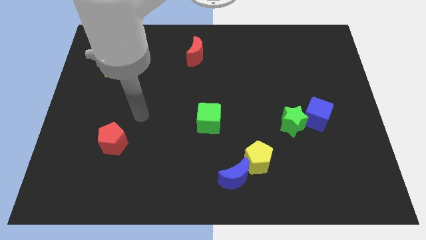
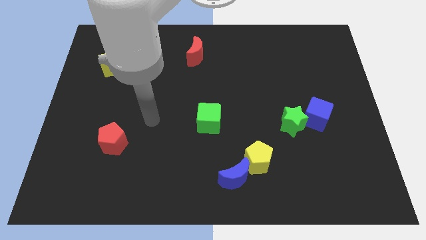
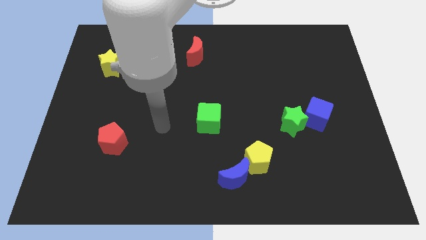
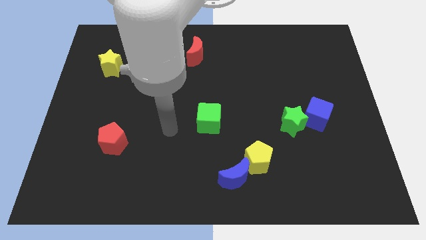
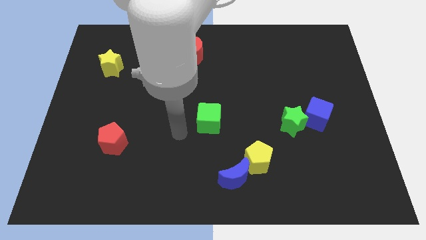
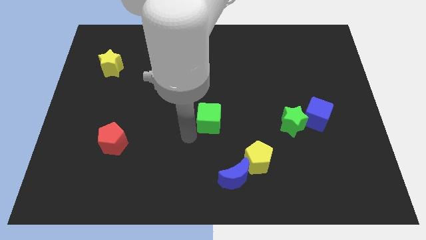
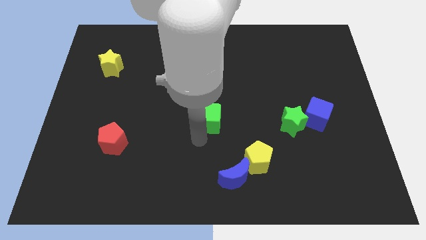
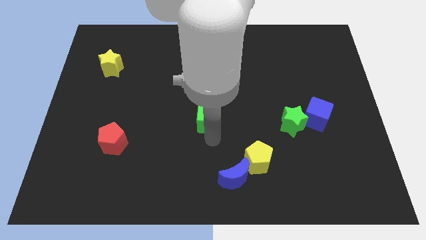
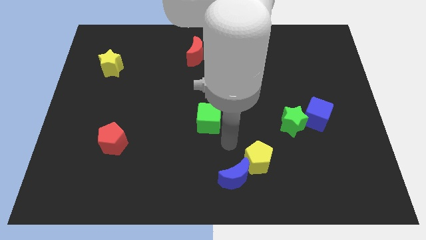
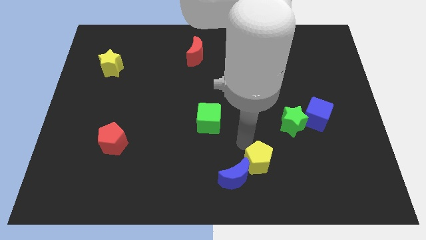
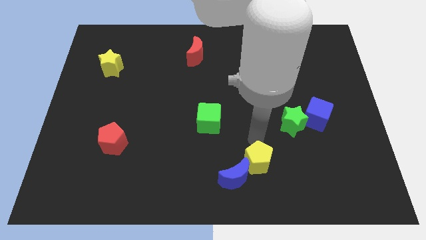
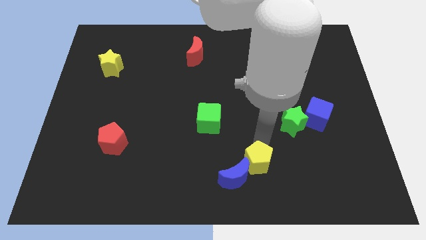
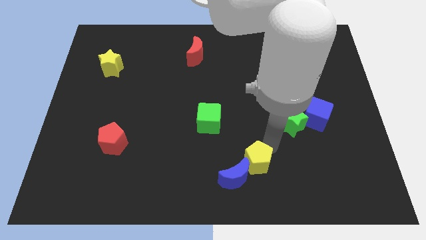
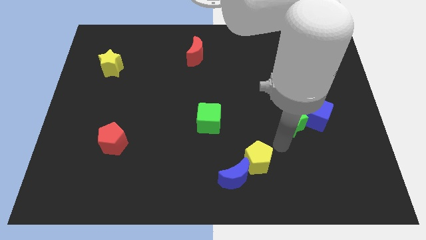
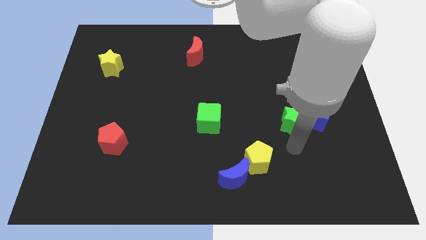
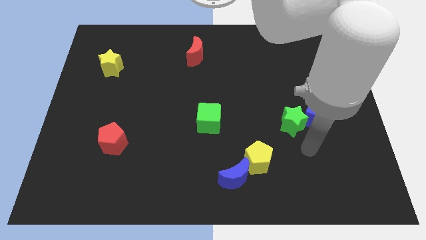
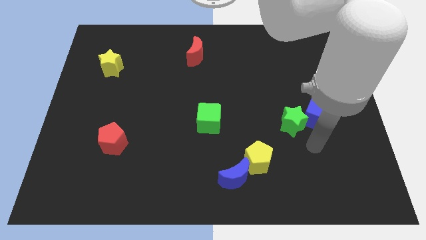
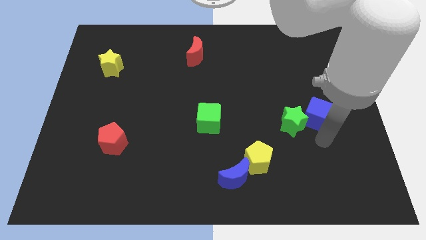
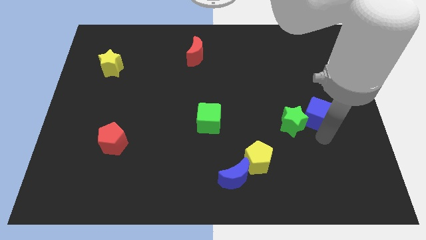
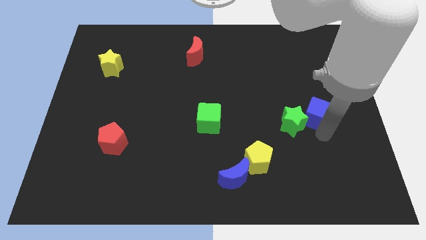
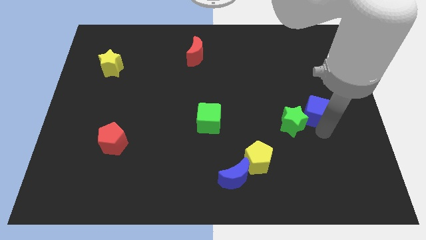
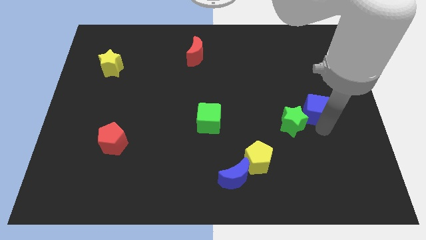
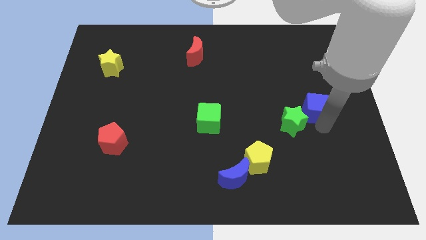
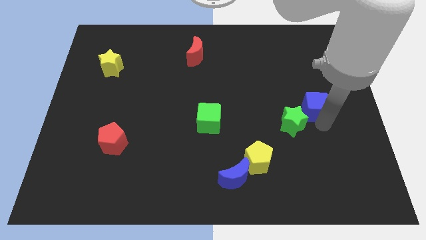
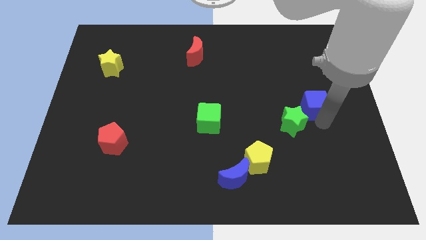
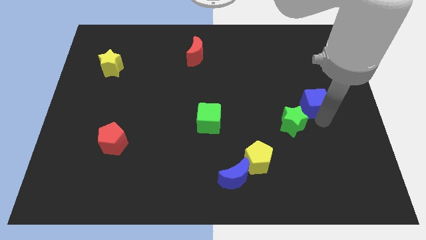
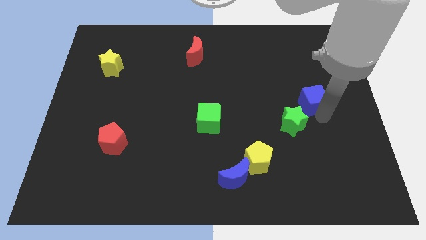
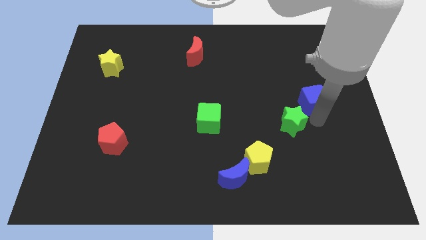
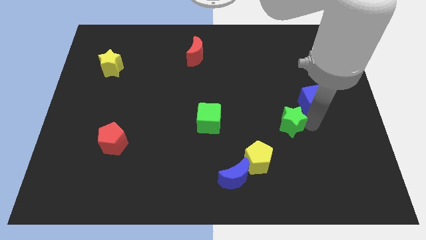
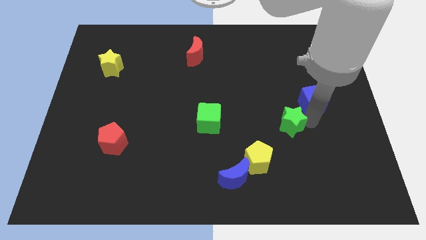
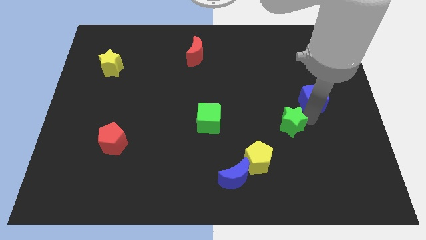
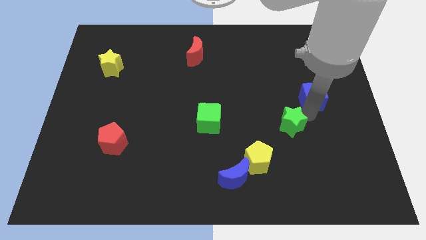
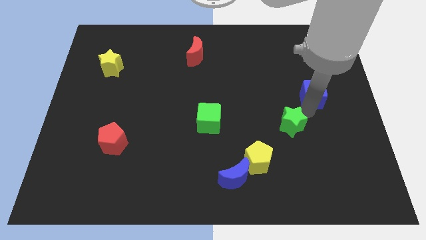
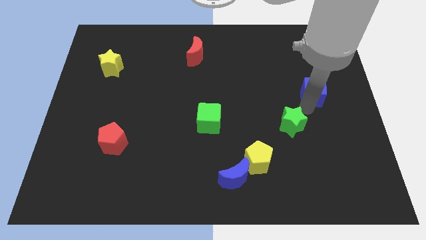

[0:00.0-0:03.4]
slightly move the blue cube upwards

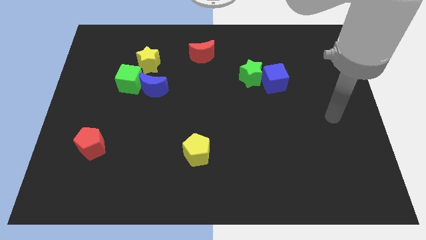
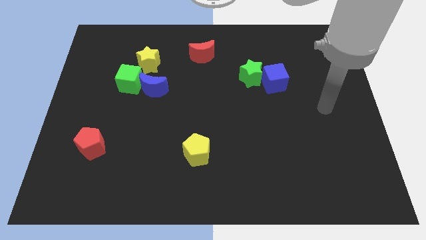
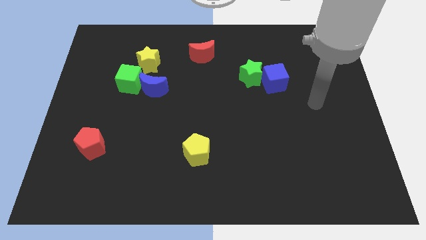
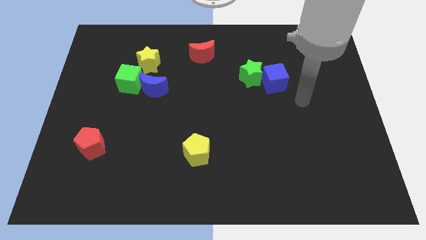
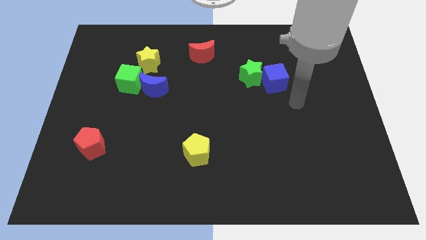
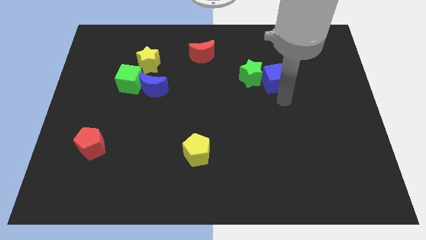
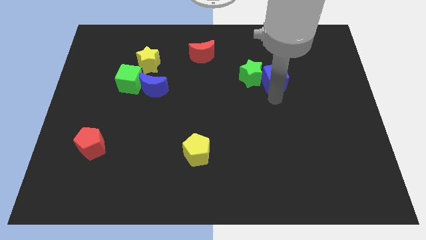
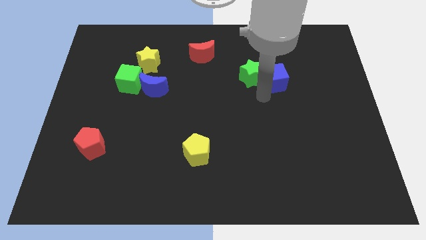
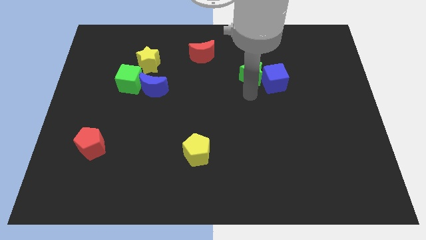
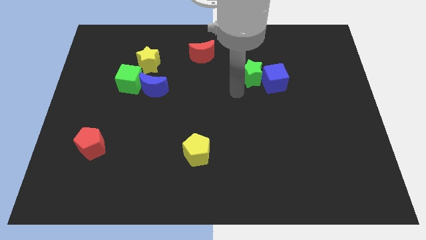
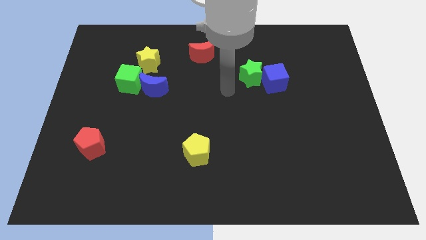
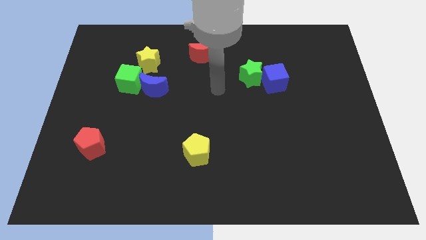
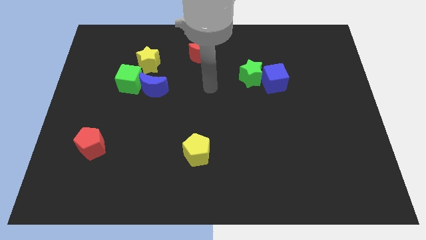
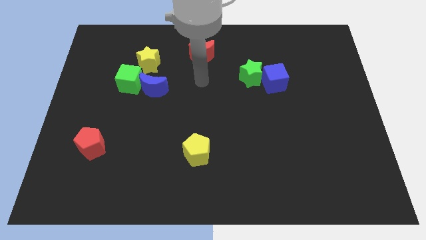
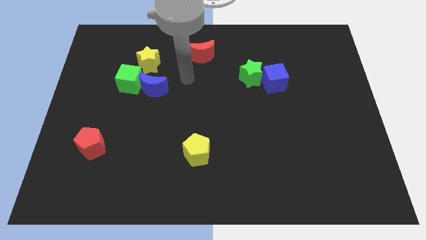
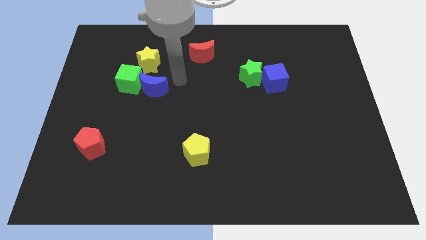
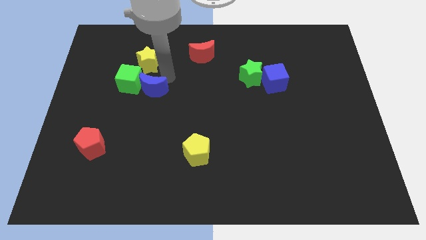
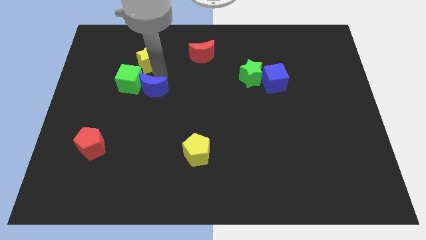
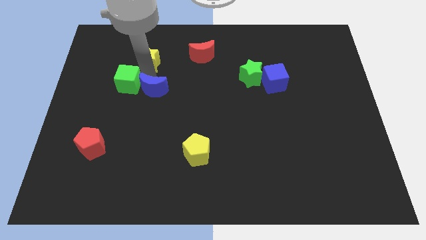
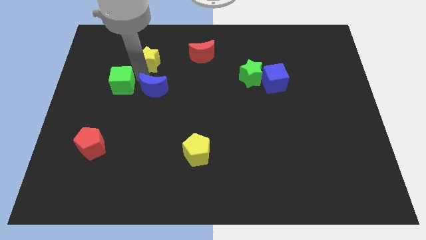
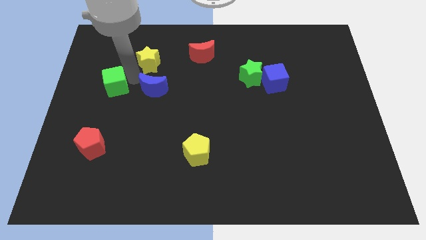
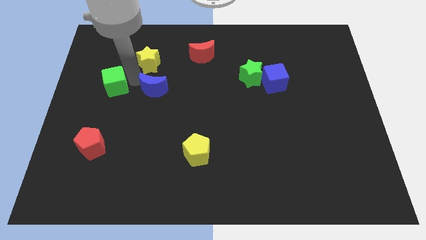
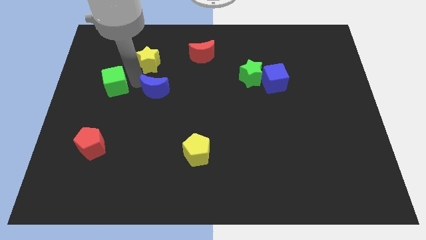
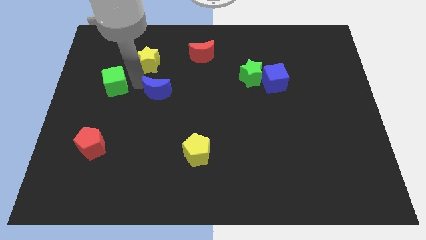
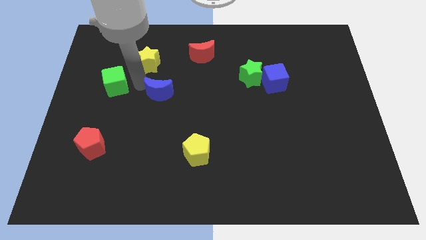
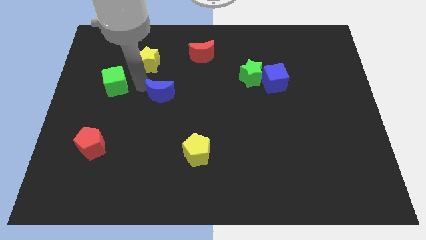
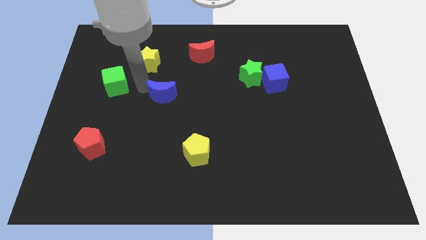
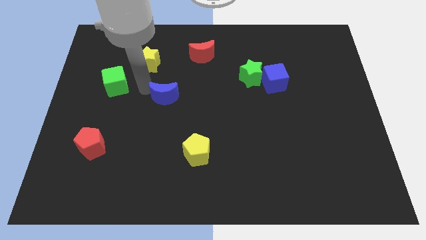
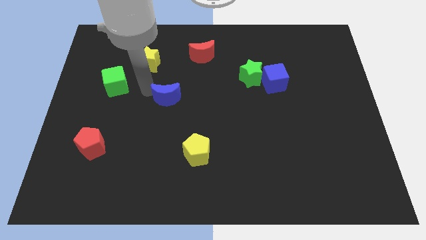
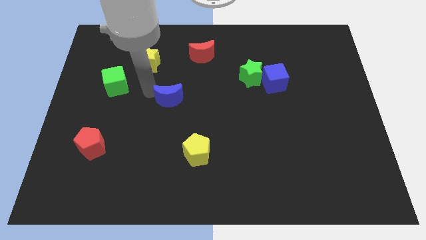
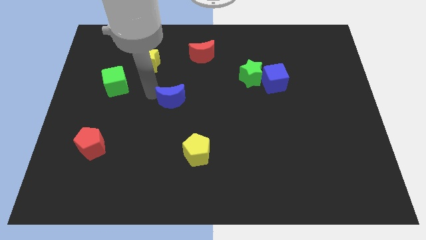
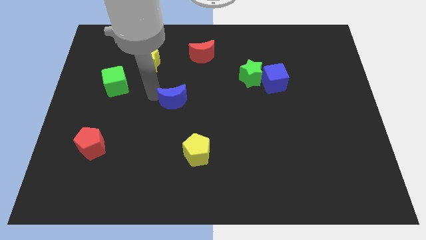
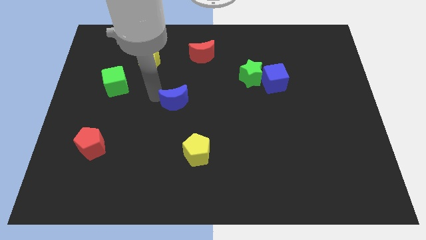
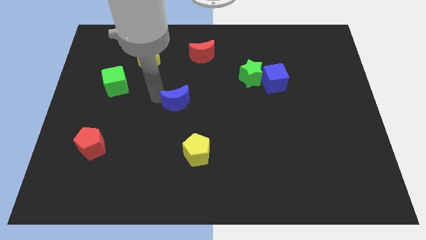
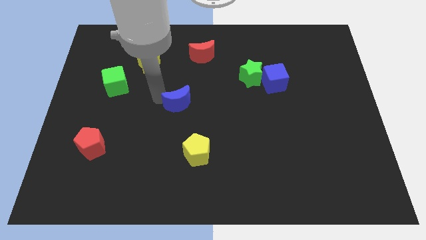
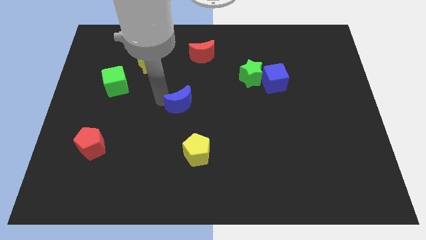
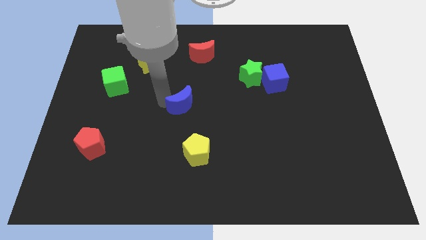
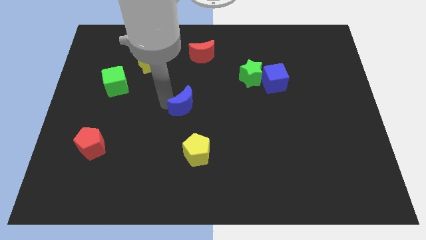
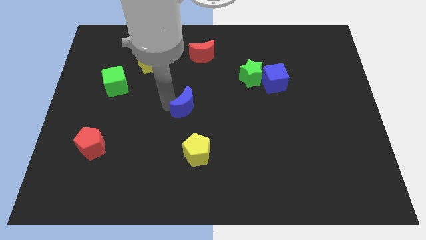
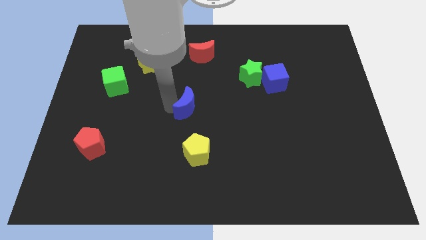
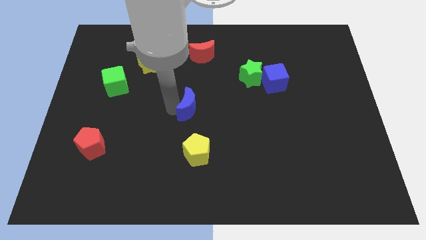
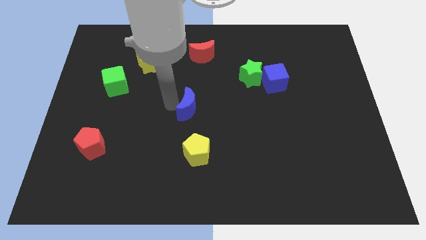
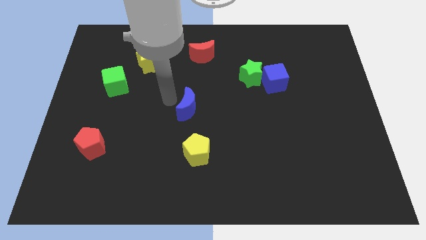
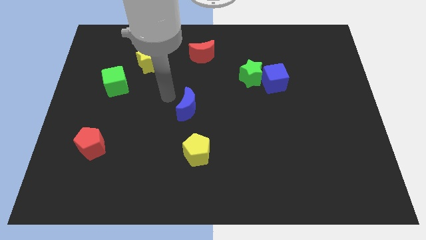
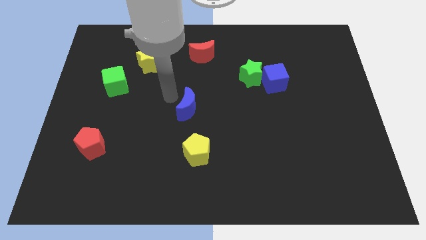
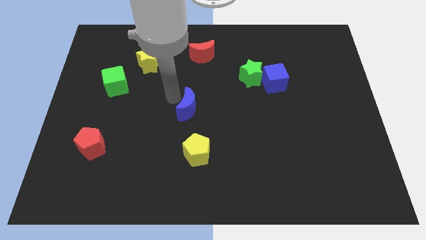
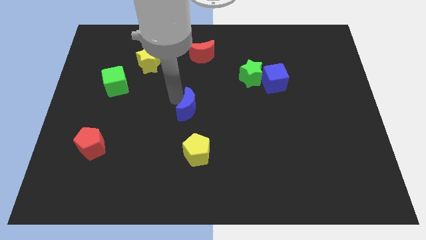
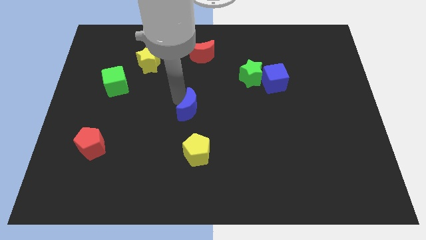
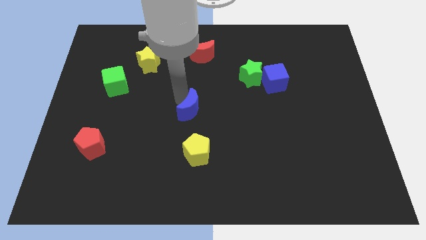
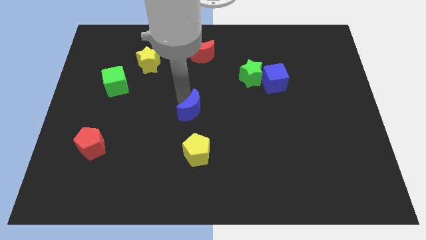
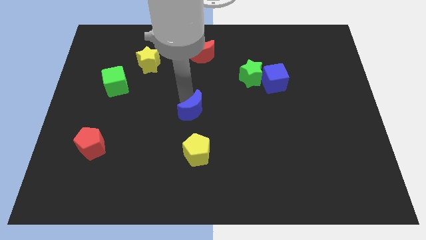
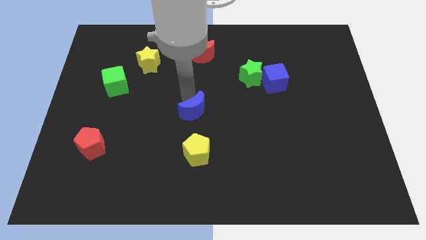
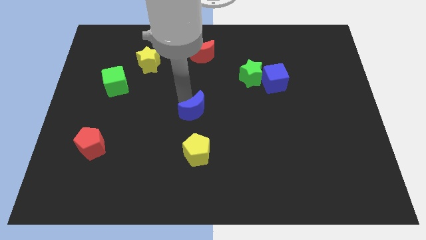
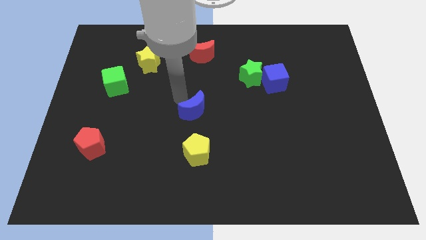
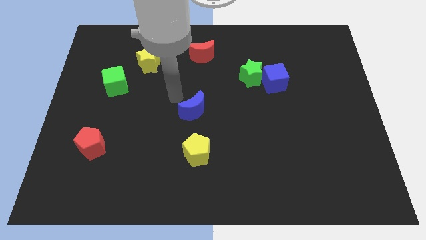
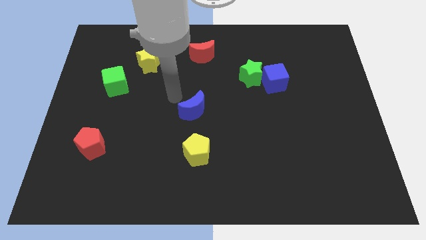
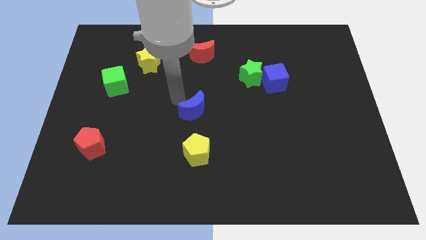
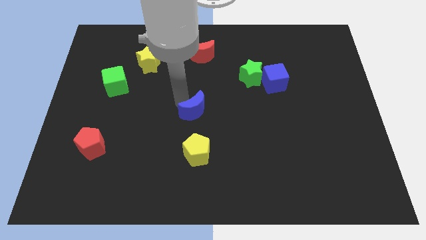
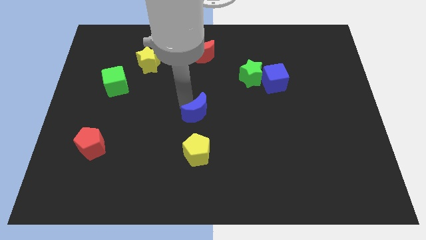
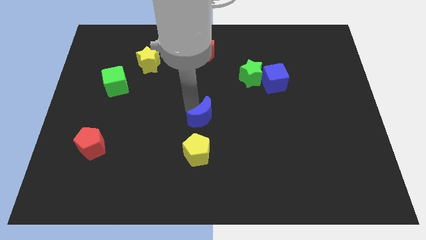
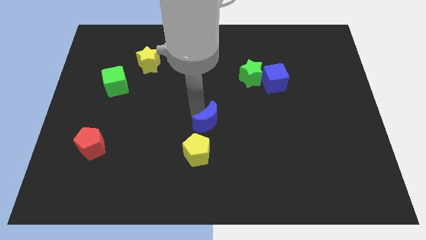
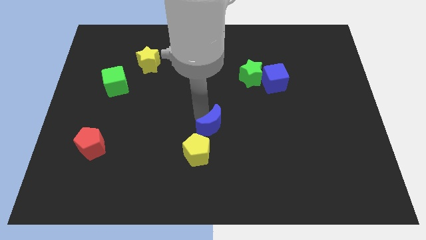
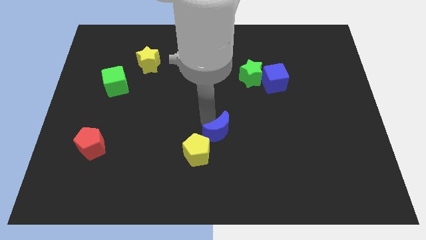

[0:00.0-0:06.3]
slide the blue moon diagonally down and right
